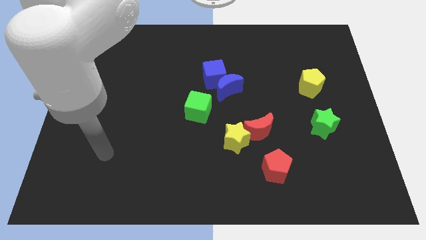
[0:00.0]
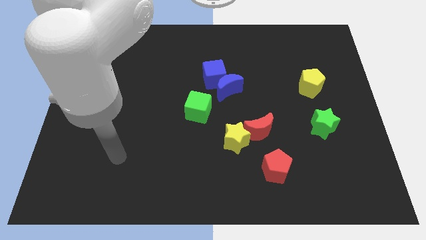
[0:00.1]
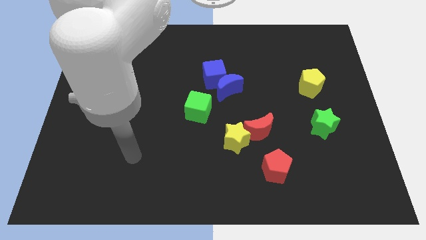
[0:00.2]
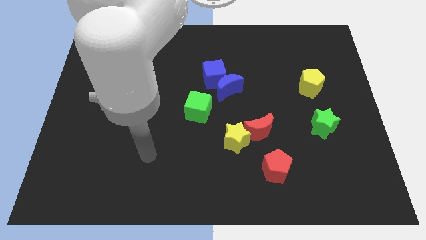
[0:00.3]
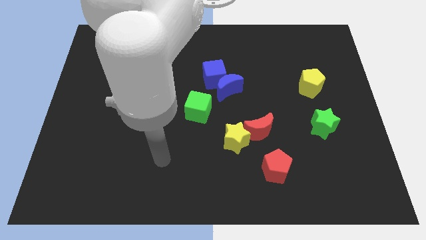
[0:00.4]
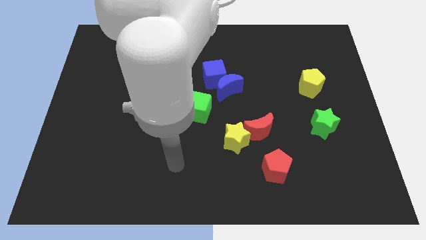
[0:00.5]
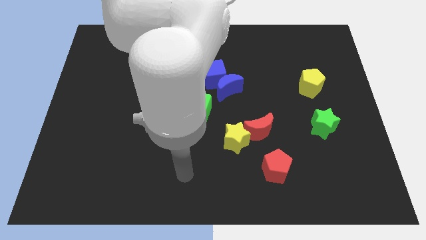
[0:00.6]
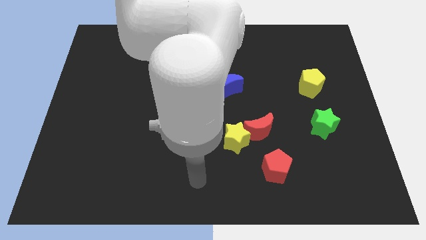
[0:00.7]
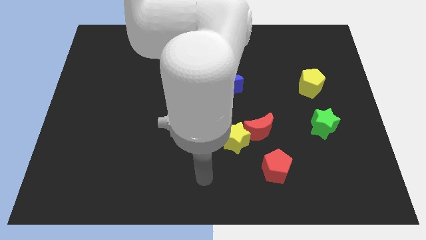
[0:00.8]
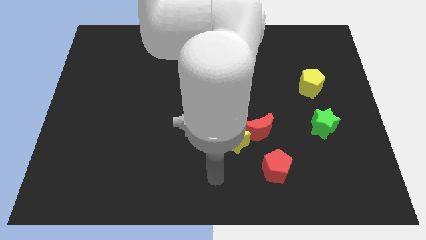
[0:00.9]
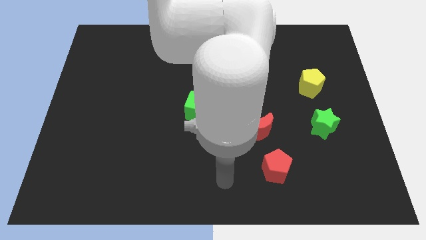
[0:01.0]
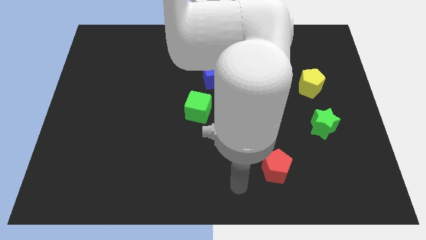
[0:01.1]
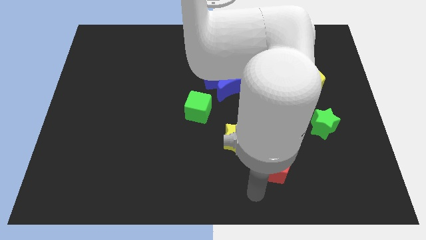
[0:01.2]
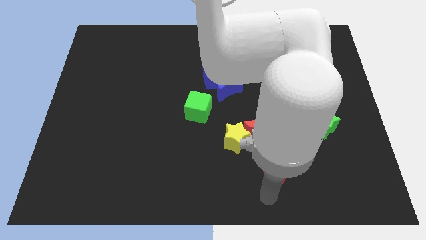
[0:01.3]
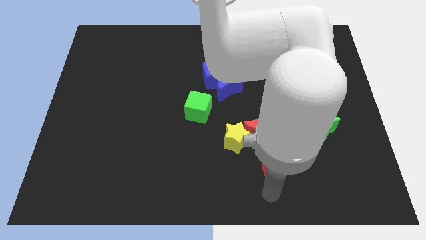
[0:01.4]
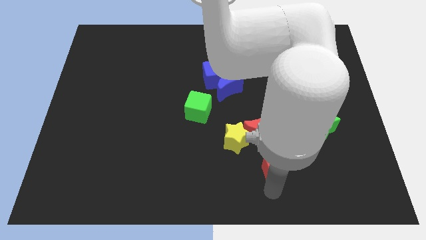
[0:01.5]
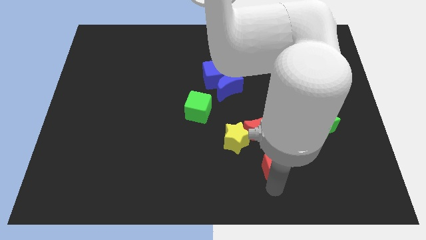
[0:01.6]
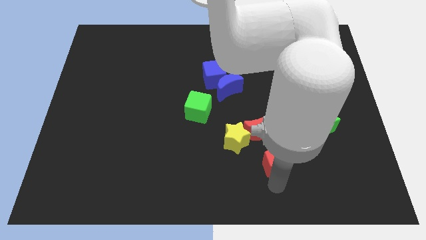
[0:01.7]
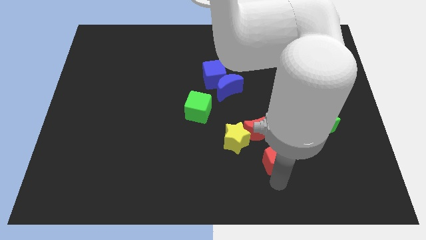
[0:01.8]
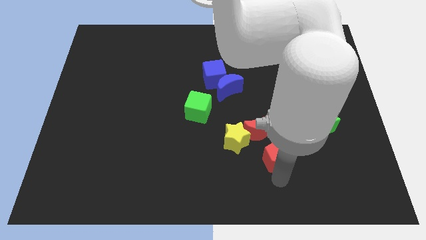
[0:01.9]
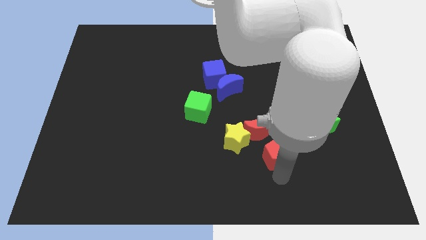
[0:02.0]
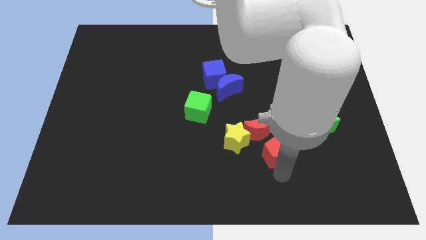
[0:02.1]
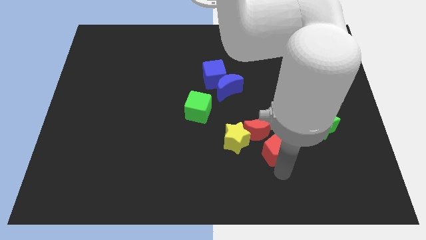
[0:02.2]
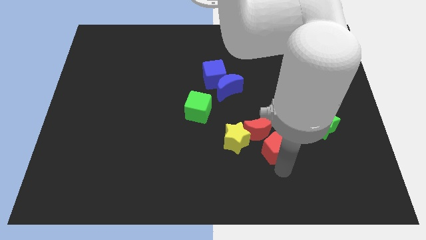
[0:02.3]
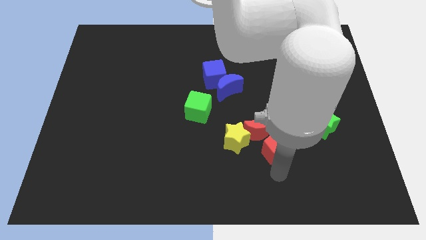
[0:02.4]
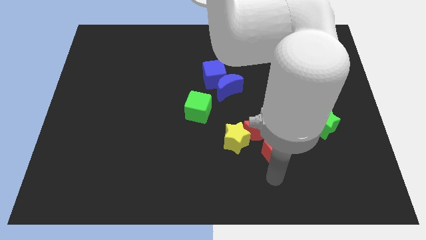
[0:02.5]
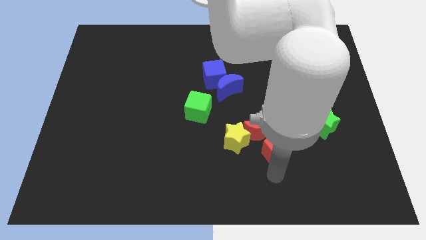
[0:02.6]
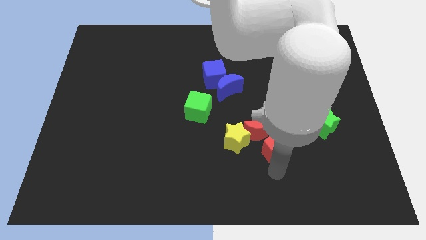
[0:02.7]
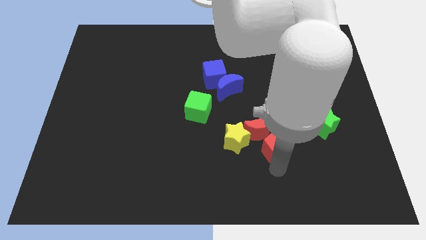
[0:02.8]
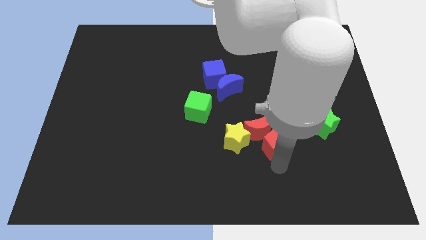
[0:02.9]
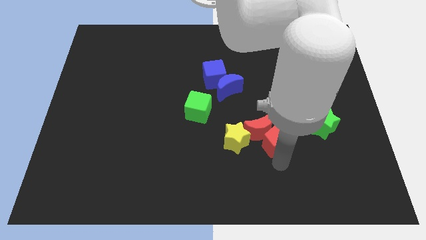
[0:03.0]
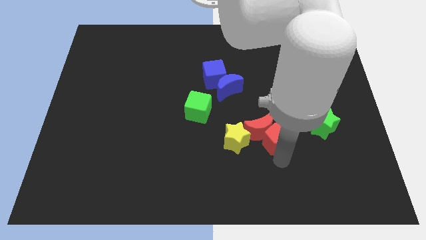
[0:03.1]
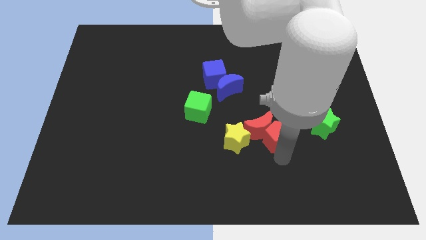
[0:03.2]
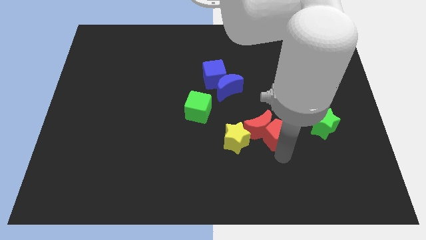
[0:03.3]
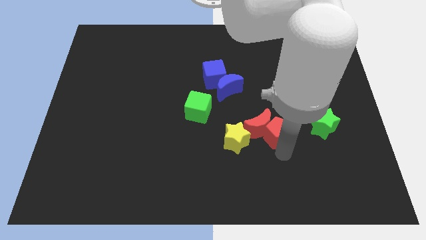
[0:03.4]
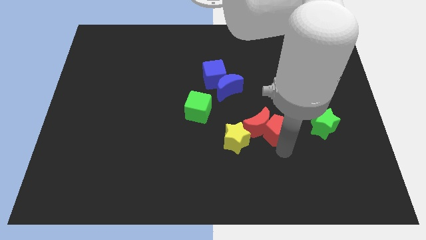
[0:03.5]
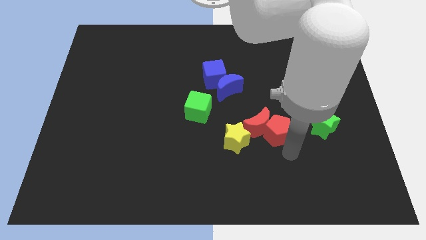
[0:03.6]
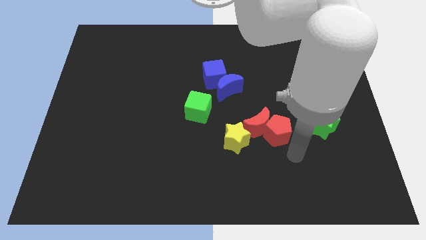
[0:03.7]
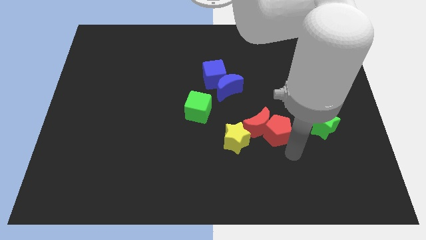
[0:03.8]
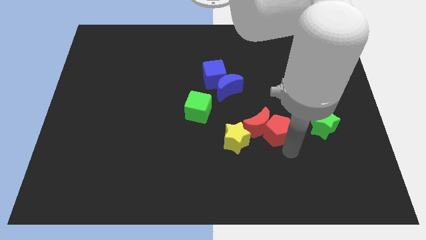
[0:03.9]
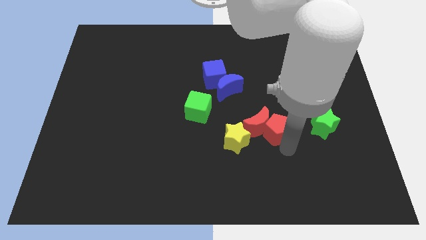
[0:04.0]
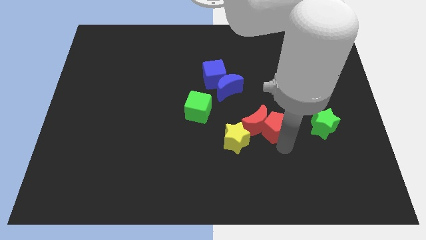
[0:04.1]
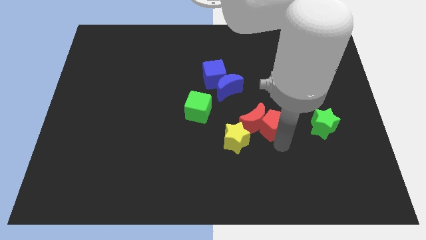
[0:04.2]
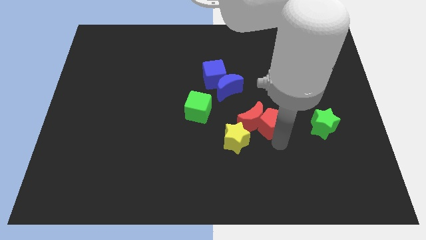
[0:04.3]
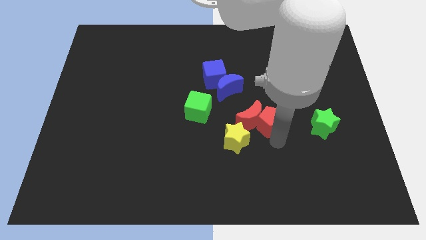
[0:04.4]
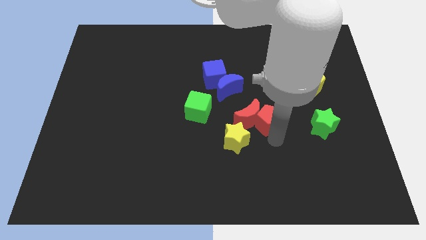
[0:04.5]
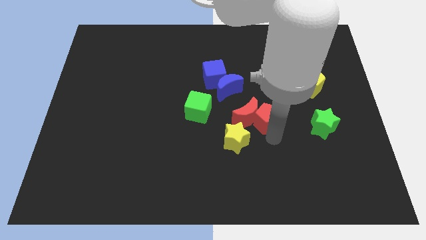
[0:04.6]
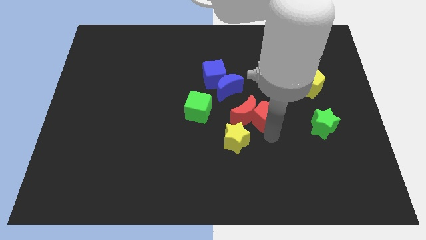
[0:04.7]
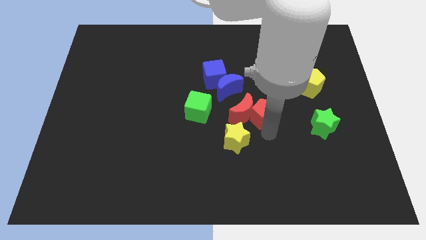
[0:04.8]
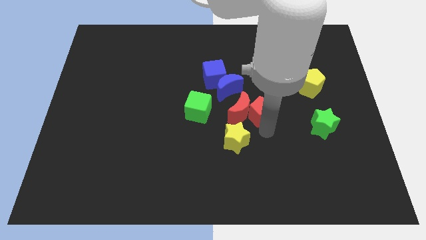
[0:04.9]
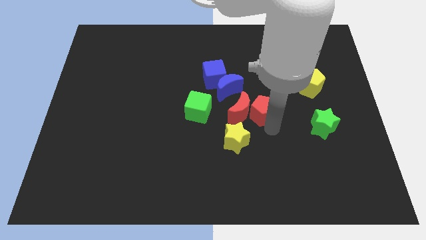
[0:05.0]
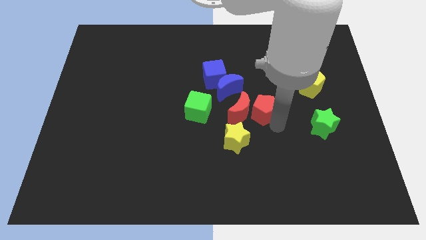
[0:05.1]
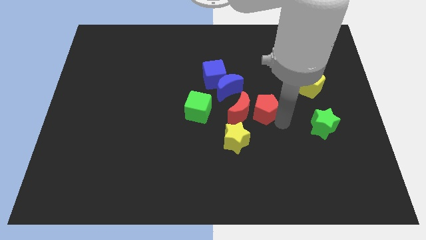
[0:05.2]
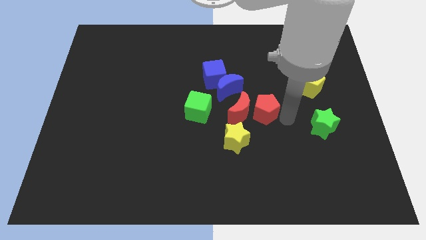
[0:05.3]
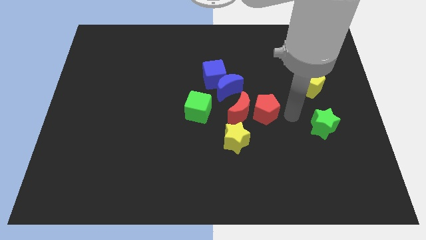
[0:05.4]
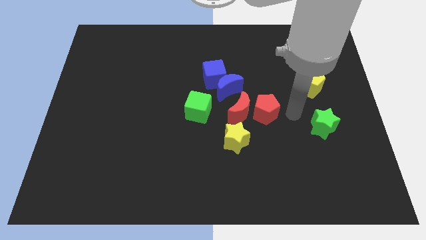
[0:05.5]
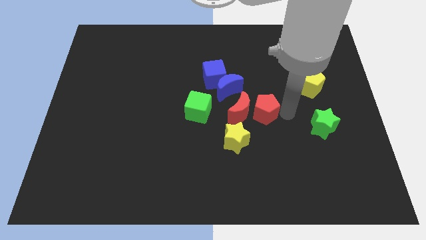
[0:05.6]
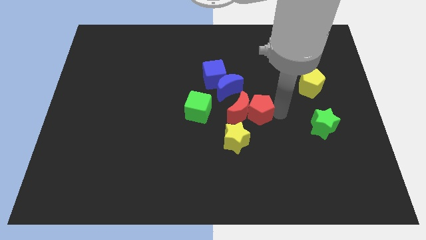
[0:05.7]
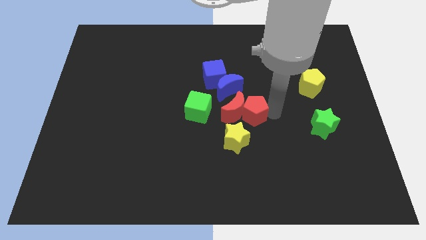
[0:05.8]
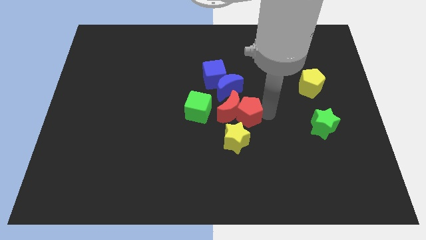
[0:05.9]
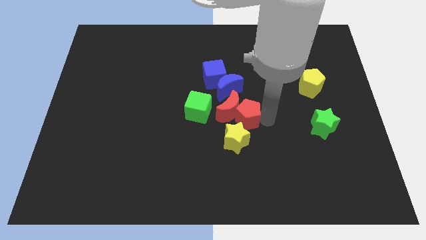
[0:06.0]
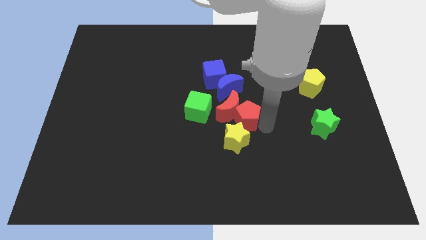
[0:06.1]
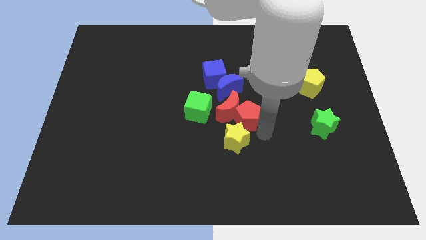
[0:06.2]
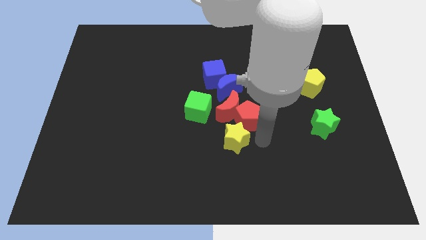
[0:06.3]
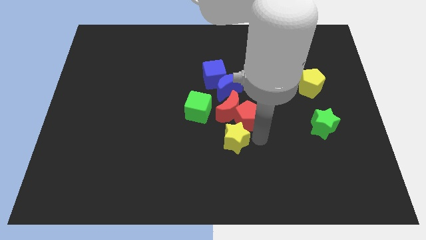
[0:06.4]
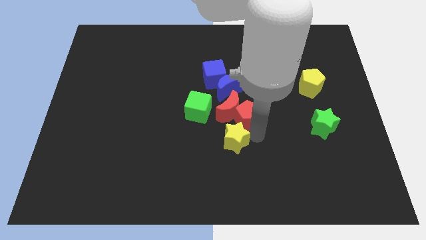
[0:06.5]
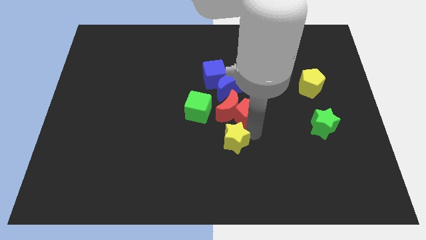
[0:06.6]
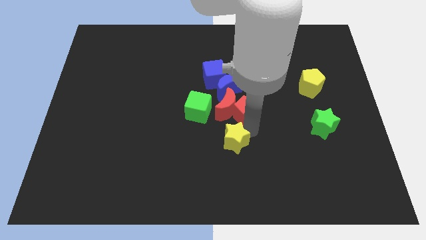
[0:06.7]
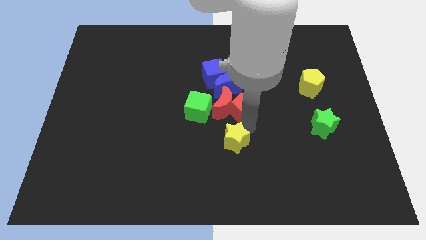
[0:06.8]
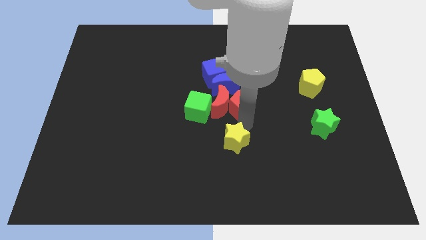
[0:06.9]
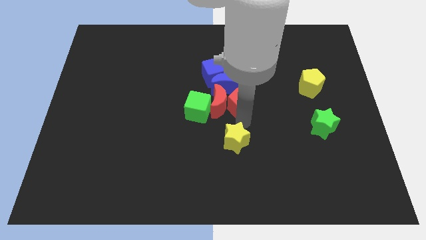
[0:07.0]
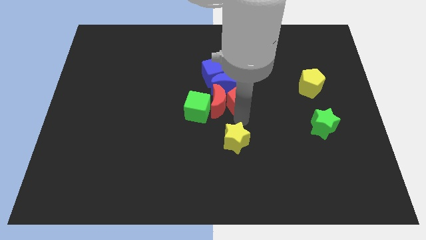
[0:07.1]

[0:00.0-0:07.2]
move the red pentagon close to the blue moon

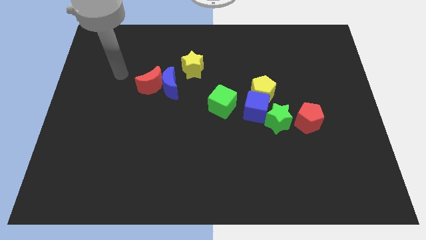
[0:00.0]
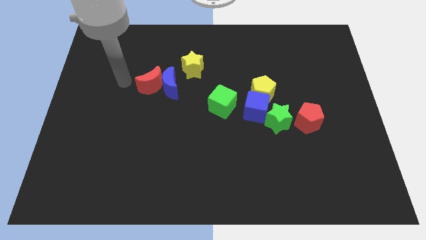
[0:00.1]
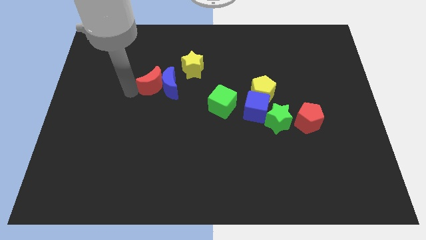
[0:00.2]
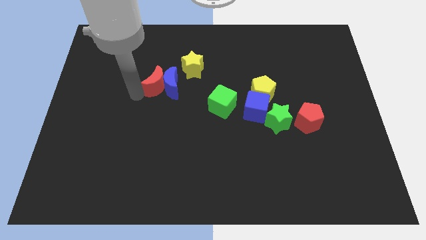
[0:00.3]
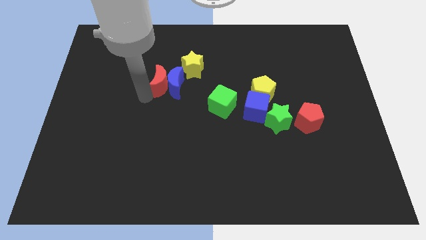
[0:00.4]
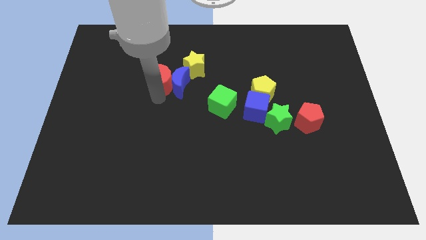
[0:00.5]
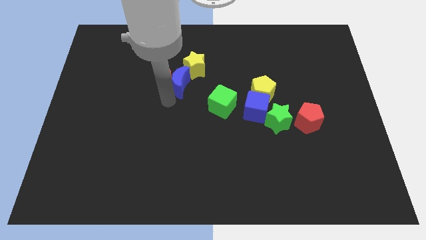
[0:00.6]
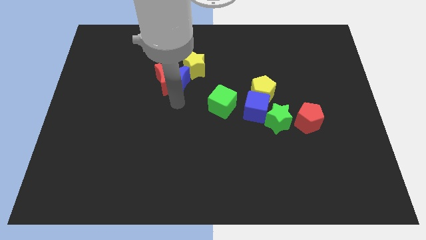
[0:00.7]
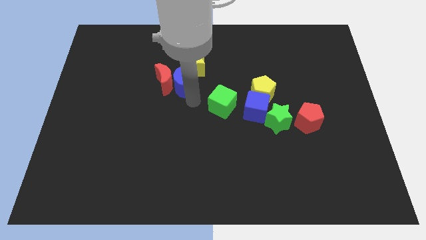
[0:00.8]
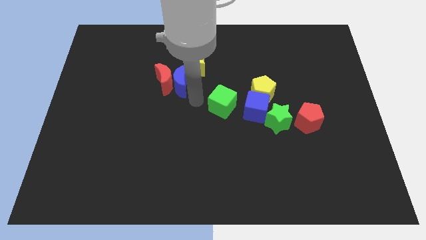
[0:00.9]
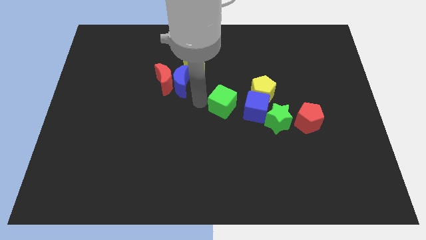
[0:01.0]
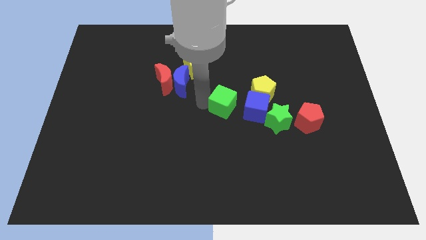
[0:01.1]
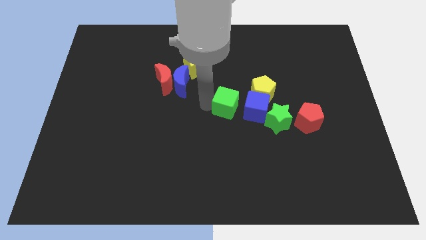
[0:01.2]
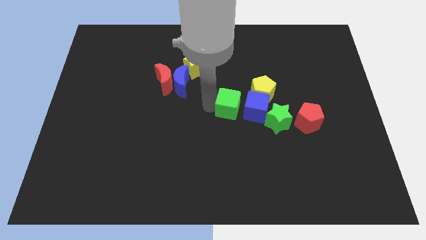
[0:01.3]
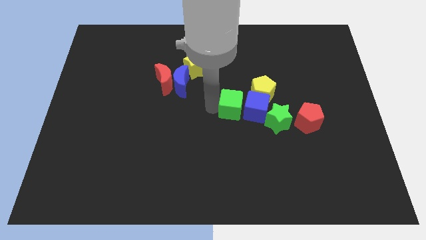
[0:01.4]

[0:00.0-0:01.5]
put the green cube to the blue cube
